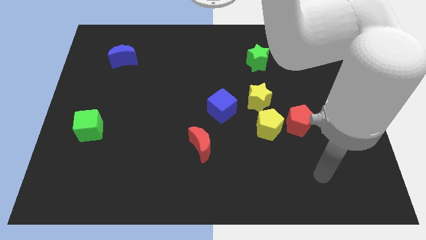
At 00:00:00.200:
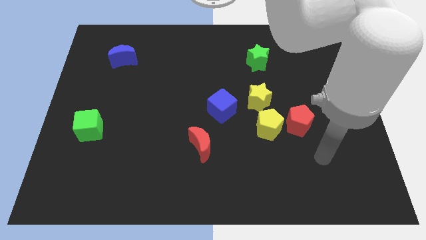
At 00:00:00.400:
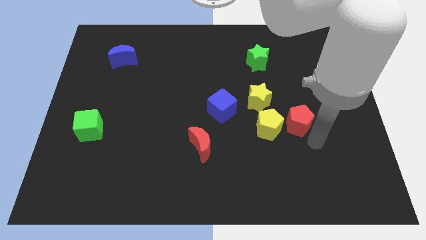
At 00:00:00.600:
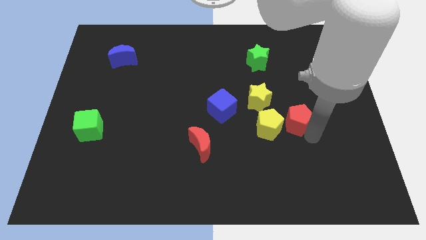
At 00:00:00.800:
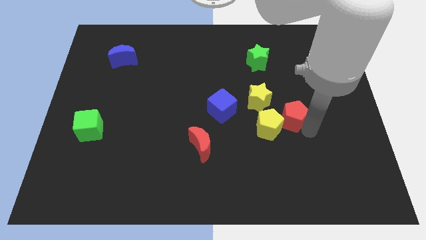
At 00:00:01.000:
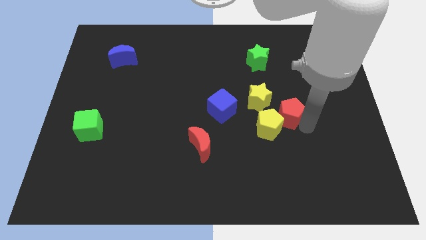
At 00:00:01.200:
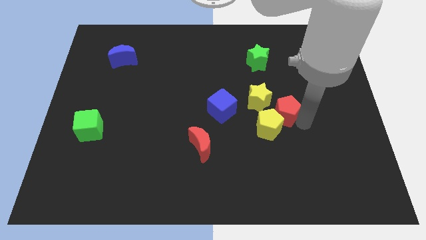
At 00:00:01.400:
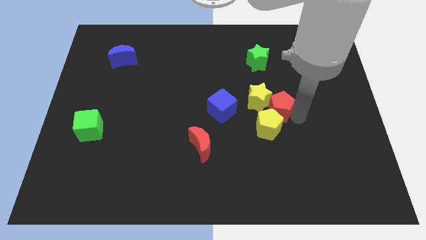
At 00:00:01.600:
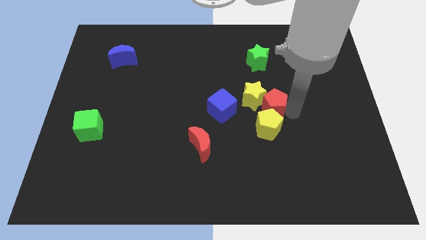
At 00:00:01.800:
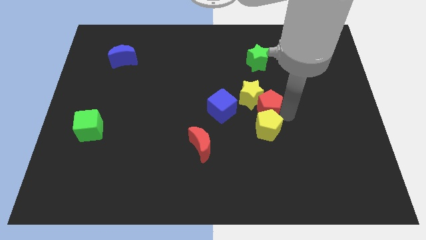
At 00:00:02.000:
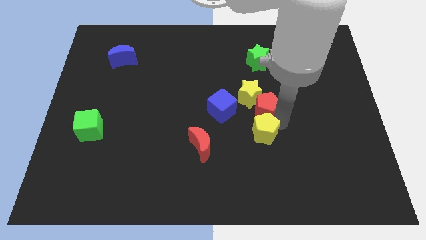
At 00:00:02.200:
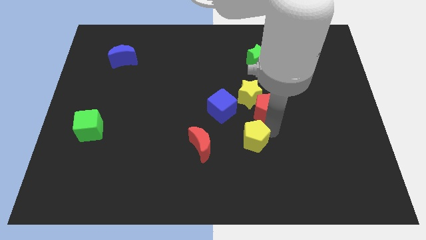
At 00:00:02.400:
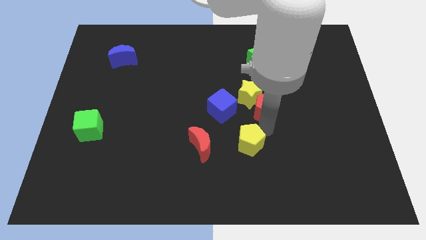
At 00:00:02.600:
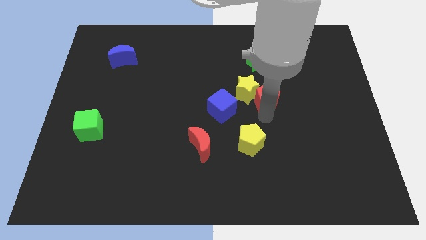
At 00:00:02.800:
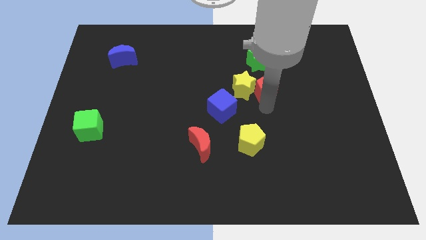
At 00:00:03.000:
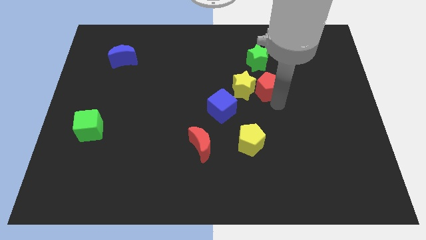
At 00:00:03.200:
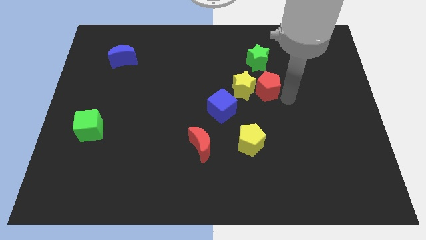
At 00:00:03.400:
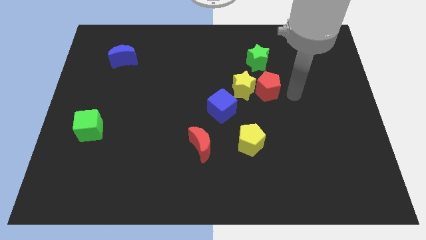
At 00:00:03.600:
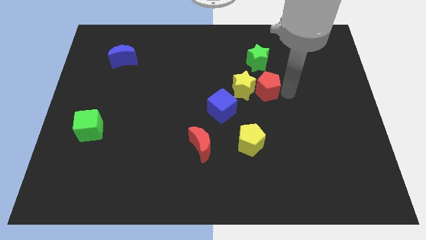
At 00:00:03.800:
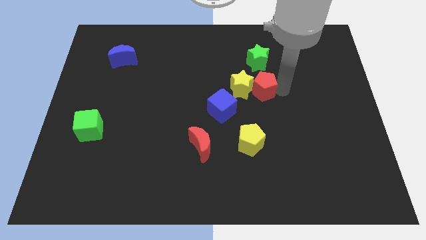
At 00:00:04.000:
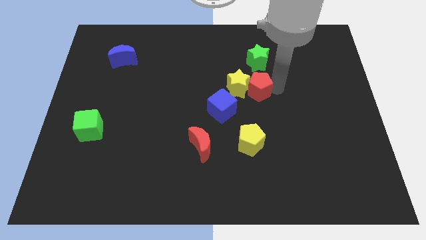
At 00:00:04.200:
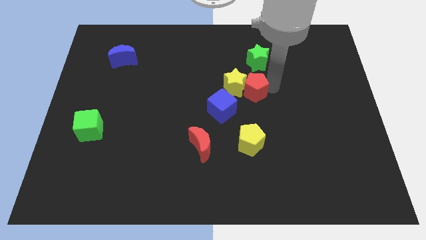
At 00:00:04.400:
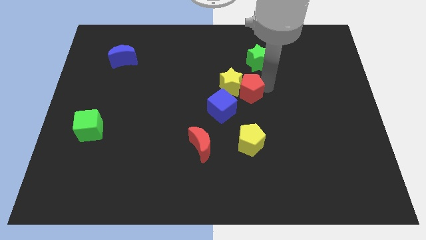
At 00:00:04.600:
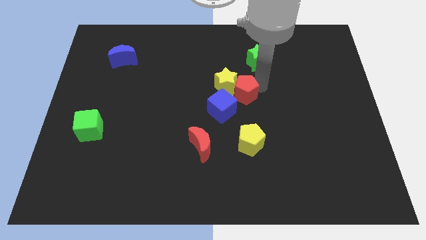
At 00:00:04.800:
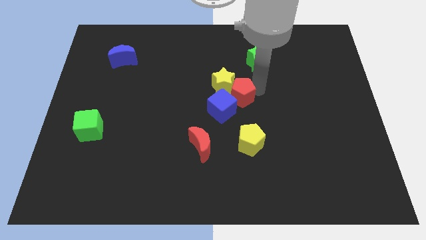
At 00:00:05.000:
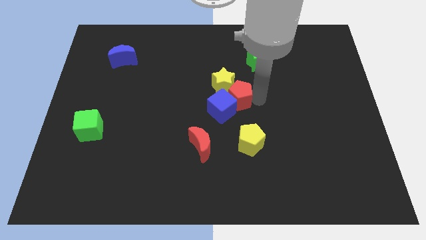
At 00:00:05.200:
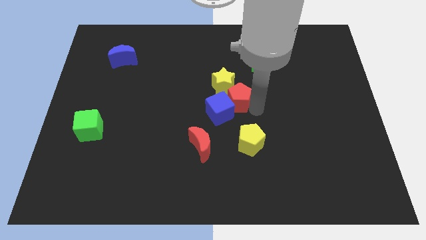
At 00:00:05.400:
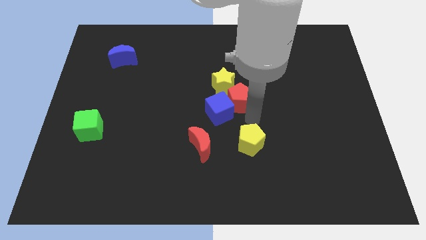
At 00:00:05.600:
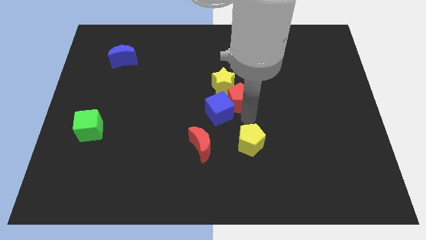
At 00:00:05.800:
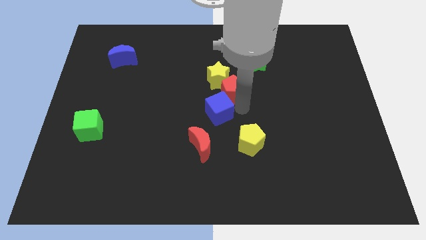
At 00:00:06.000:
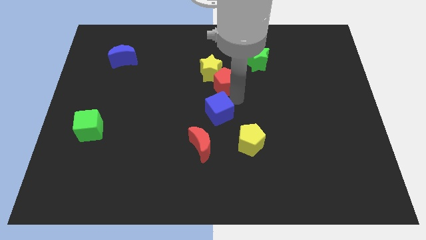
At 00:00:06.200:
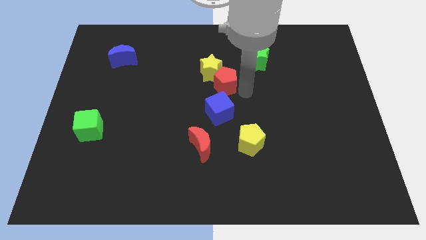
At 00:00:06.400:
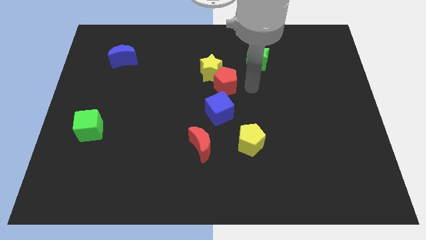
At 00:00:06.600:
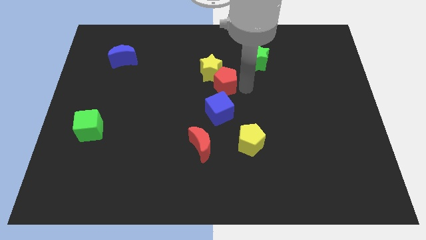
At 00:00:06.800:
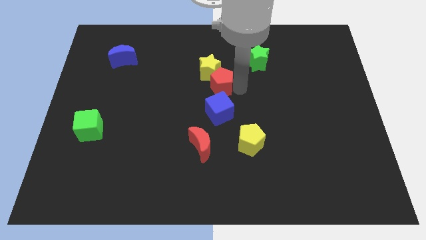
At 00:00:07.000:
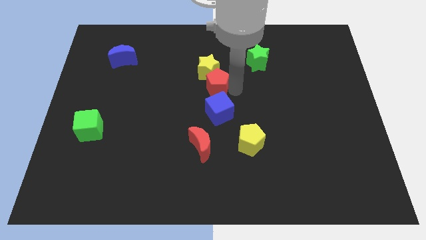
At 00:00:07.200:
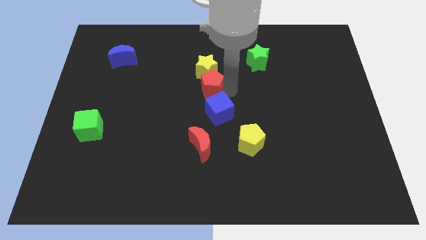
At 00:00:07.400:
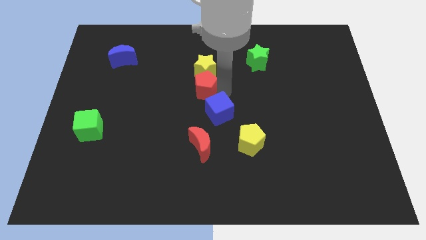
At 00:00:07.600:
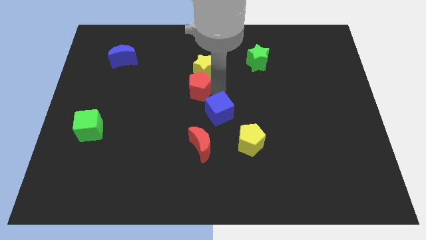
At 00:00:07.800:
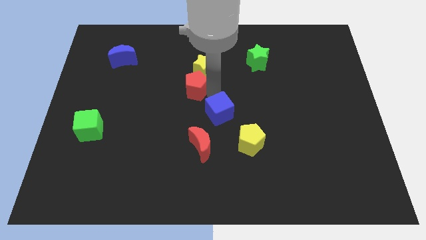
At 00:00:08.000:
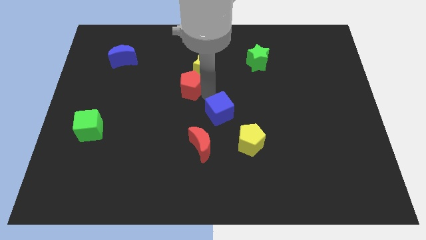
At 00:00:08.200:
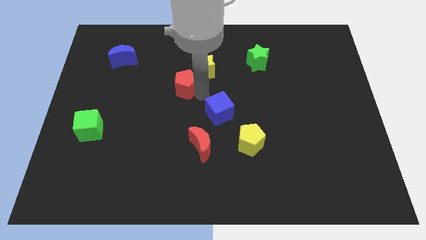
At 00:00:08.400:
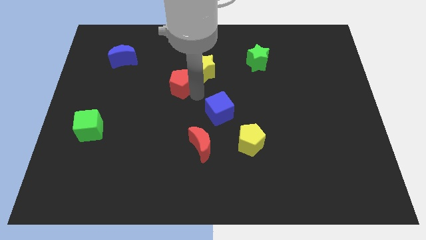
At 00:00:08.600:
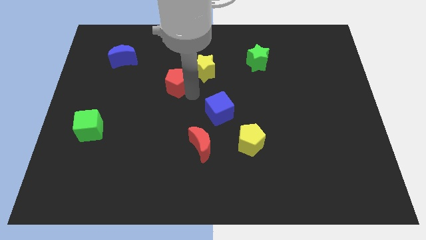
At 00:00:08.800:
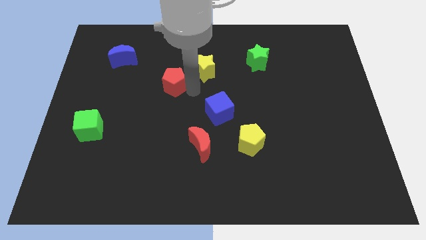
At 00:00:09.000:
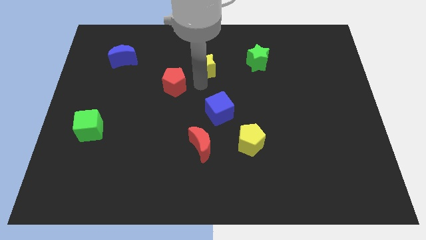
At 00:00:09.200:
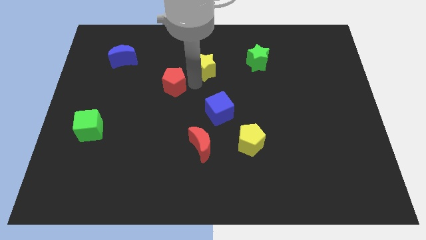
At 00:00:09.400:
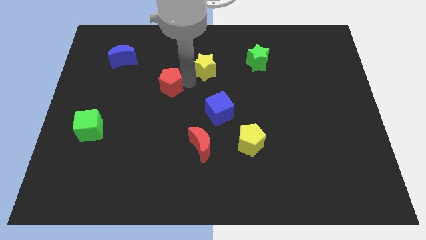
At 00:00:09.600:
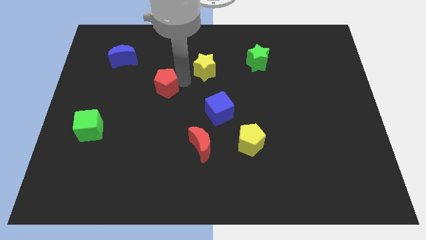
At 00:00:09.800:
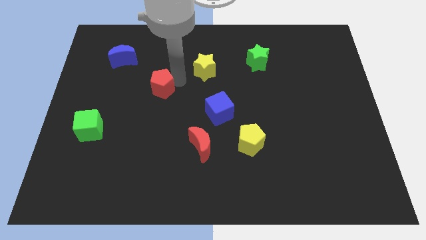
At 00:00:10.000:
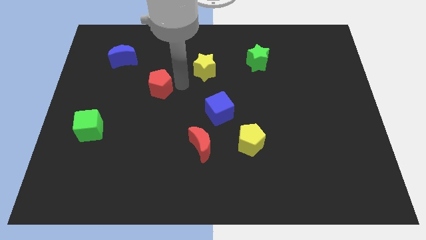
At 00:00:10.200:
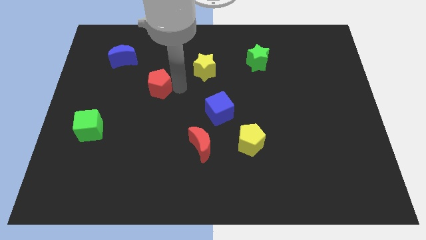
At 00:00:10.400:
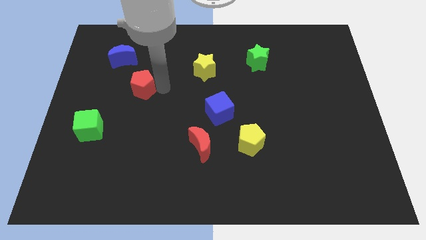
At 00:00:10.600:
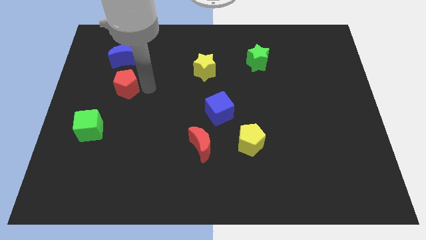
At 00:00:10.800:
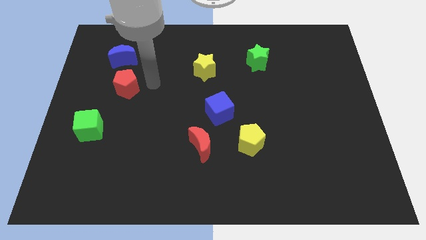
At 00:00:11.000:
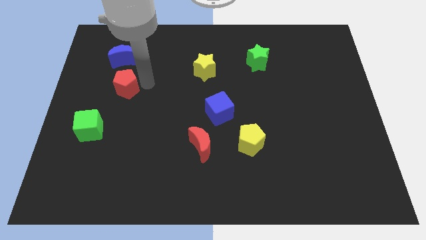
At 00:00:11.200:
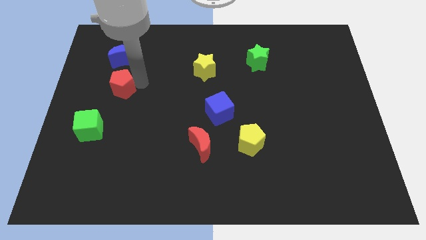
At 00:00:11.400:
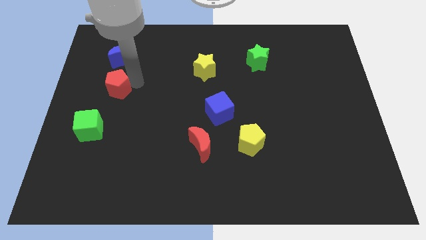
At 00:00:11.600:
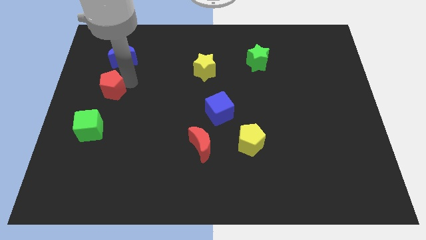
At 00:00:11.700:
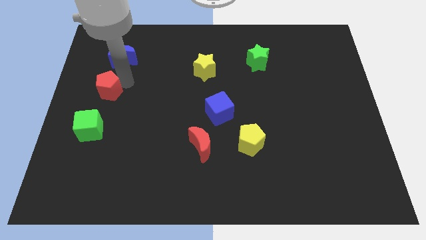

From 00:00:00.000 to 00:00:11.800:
move the red pentagon to the left side of the board

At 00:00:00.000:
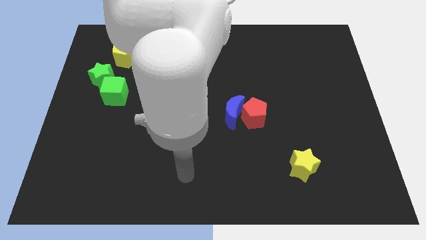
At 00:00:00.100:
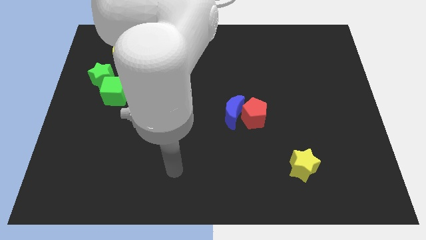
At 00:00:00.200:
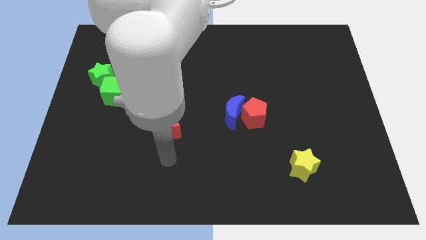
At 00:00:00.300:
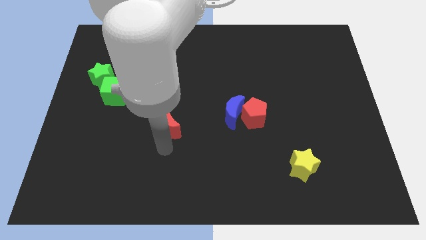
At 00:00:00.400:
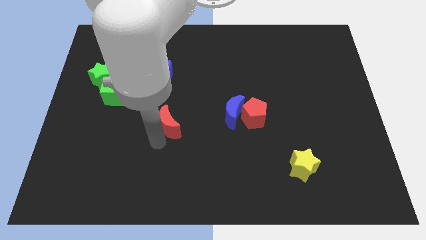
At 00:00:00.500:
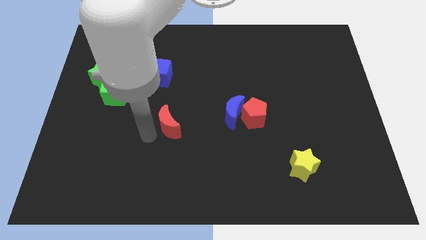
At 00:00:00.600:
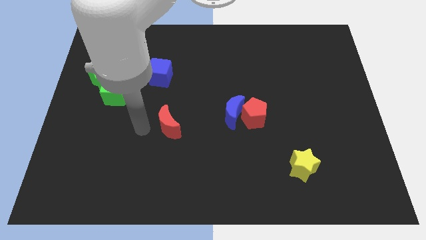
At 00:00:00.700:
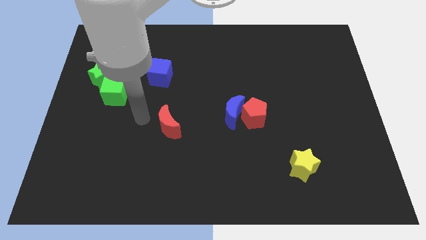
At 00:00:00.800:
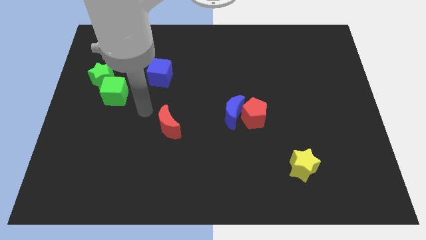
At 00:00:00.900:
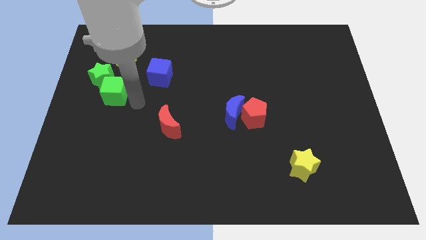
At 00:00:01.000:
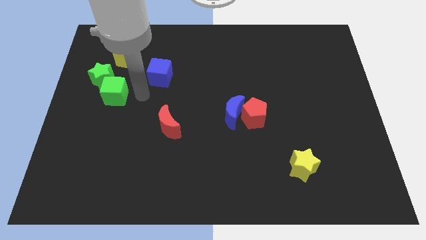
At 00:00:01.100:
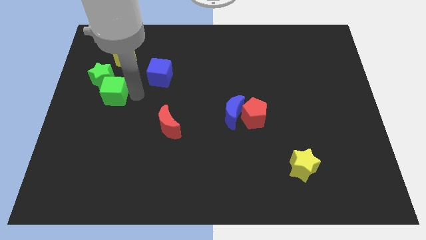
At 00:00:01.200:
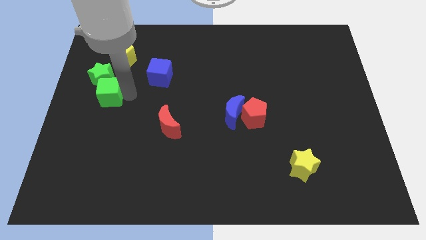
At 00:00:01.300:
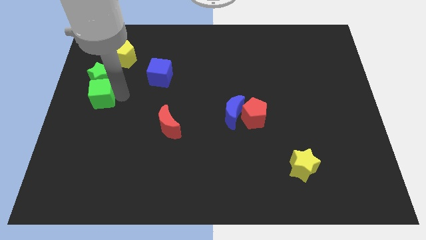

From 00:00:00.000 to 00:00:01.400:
push the green cube to the left side of the board
